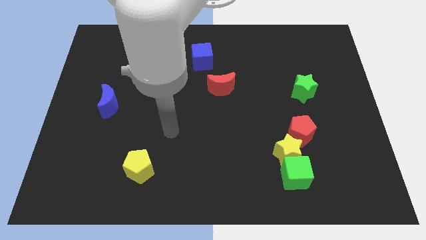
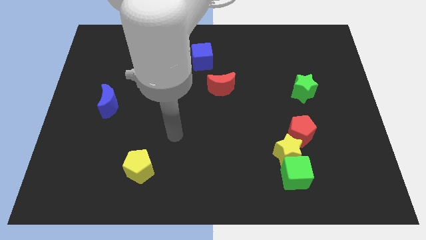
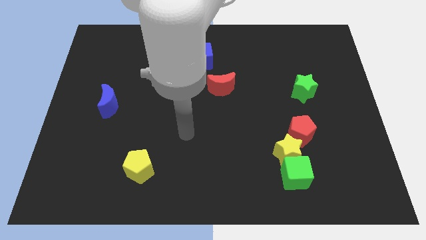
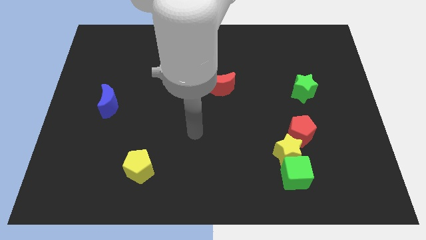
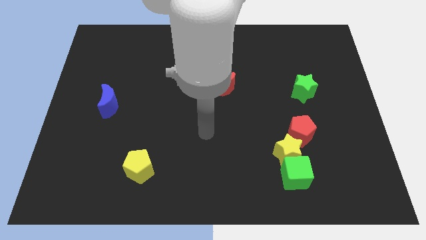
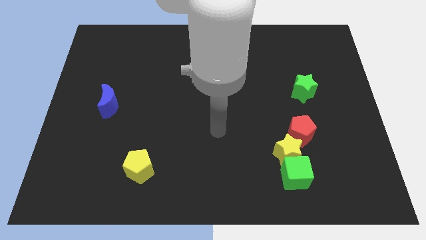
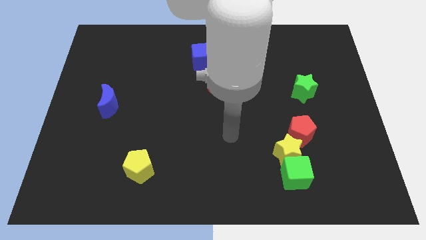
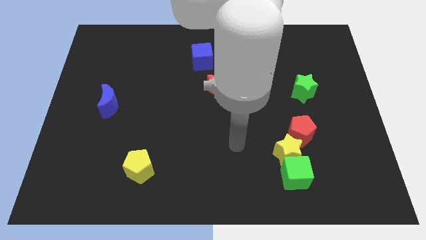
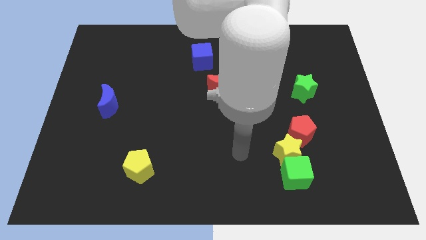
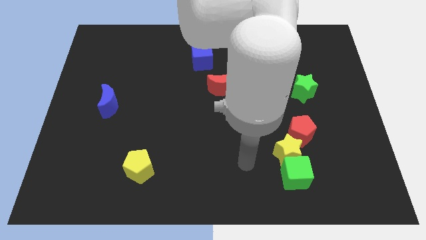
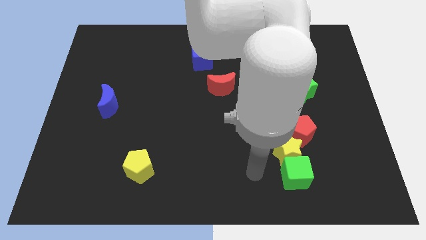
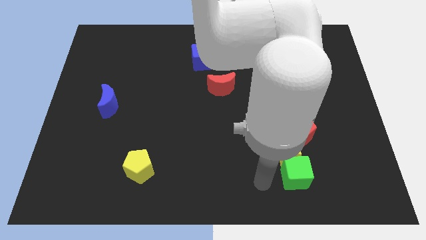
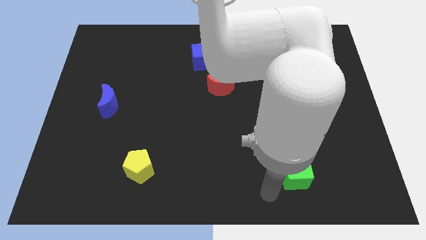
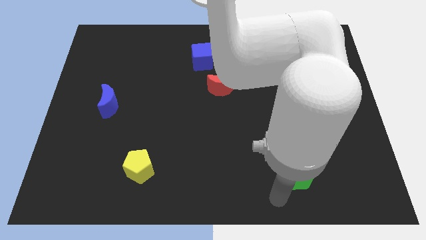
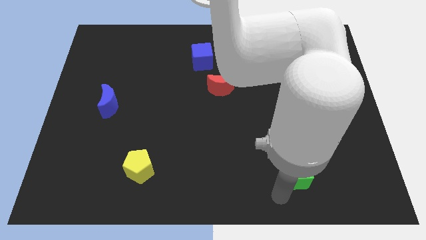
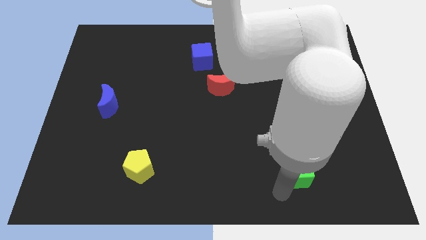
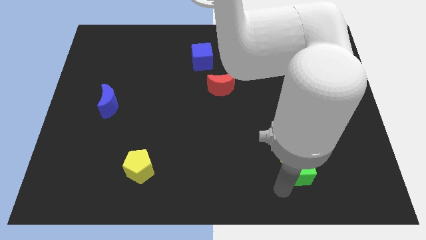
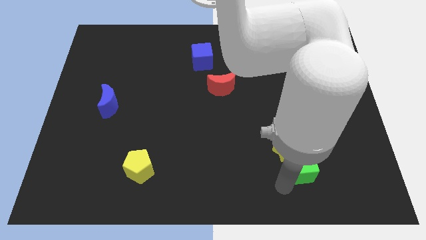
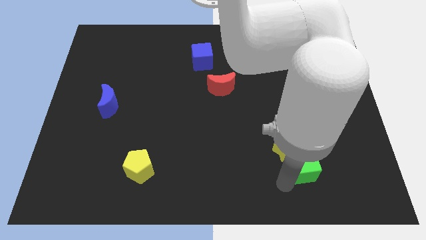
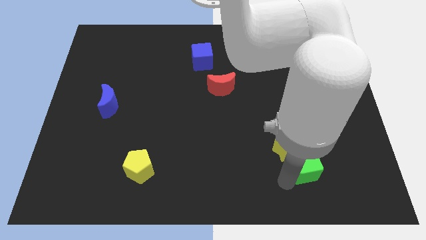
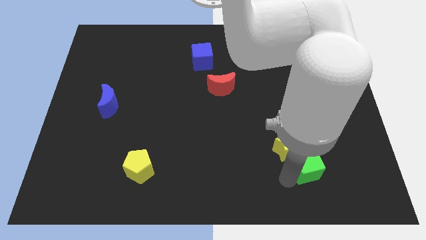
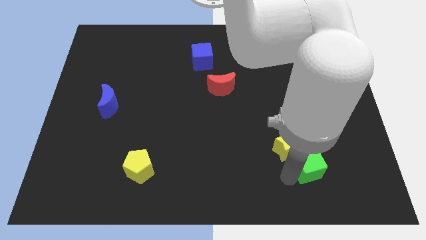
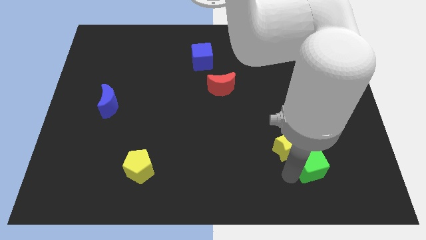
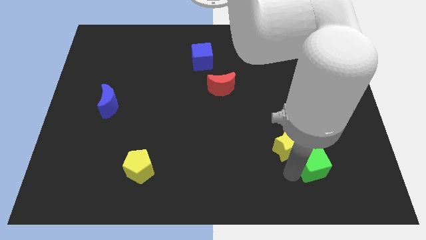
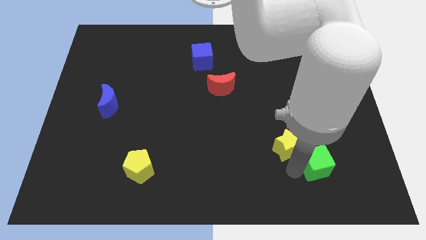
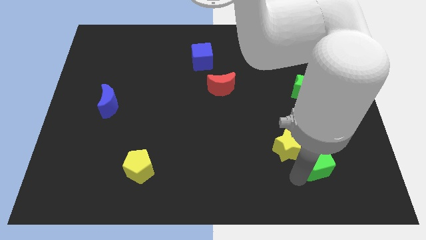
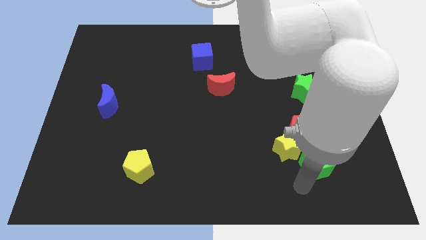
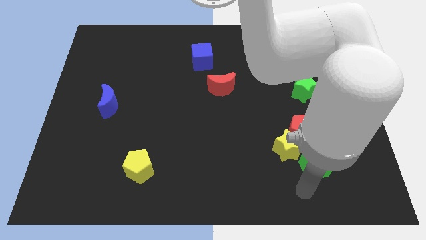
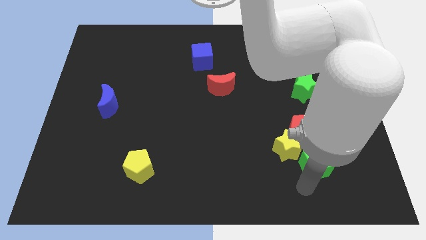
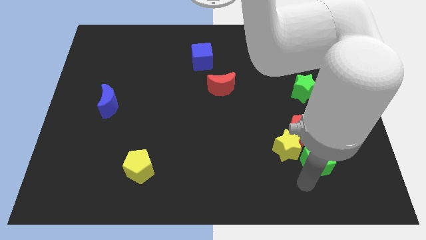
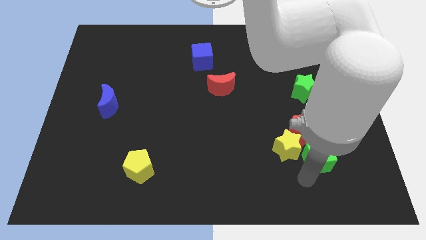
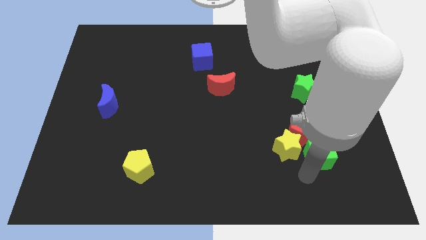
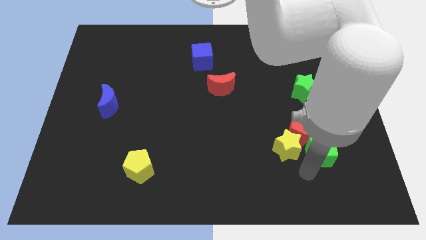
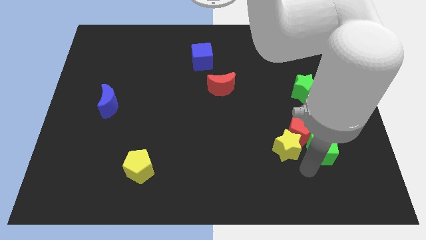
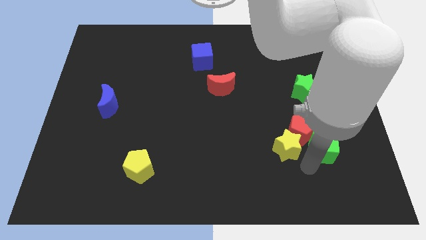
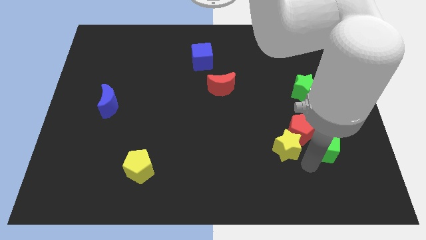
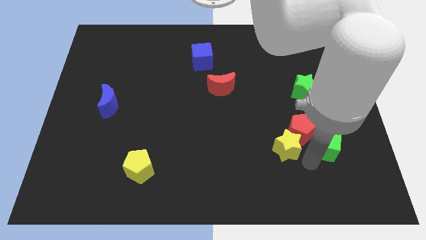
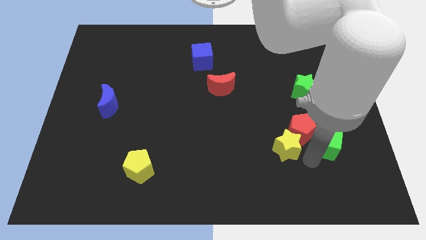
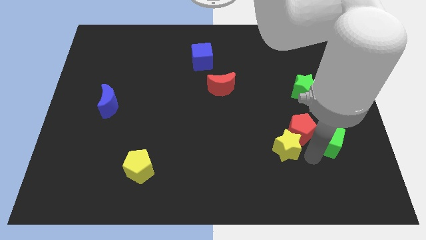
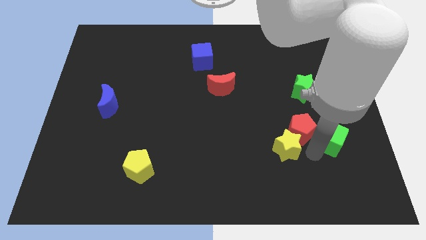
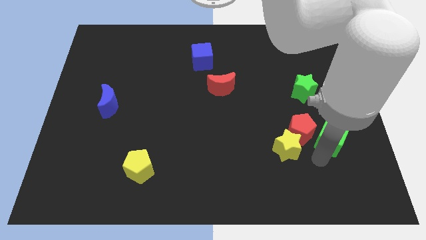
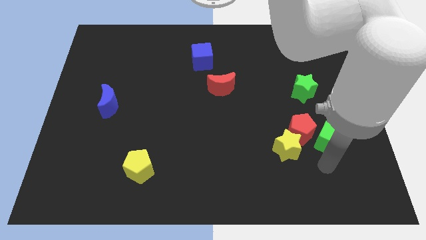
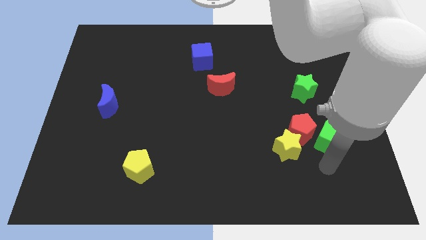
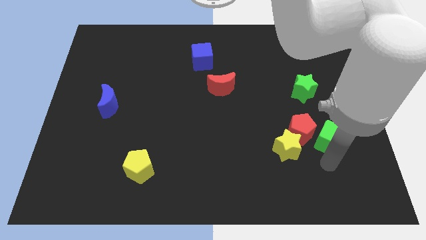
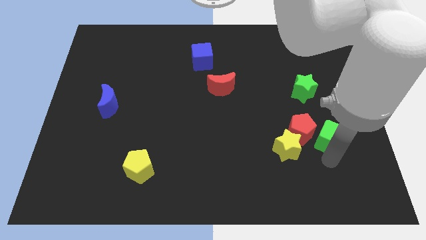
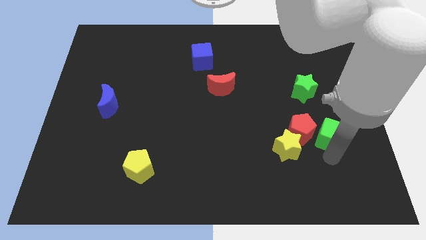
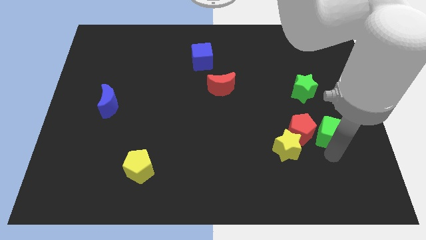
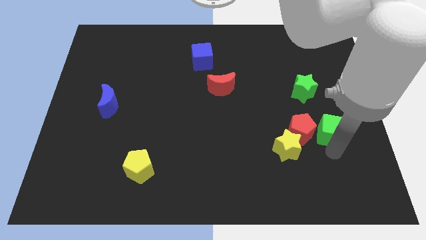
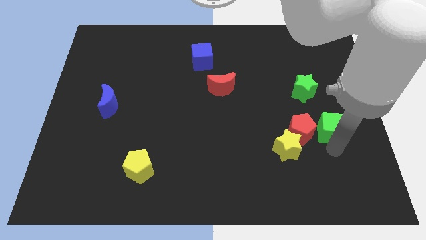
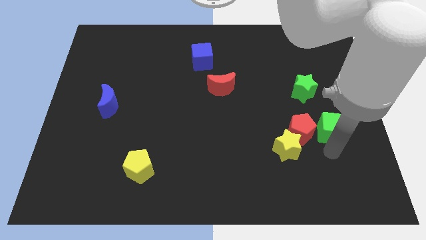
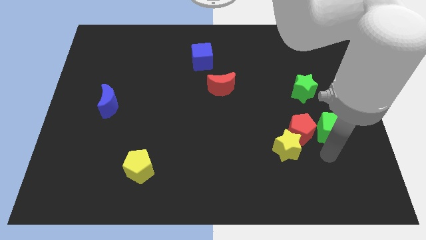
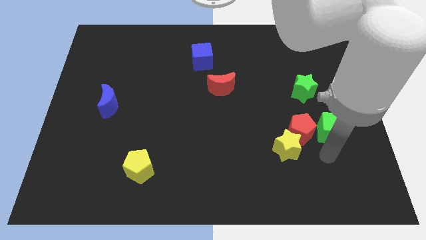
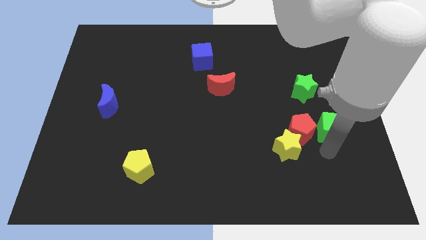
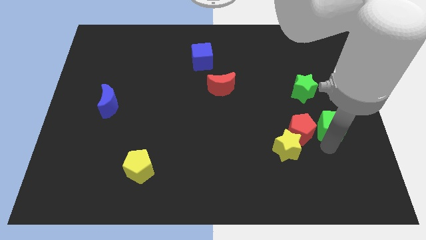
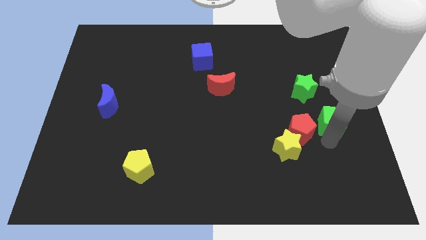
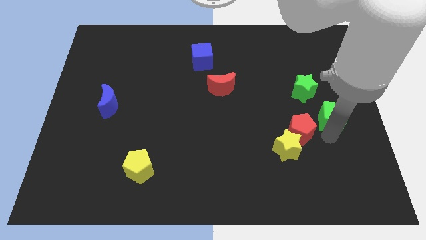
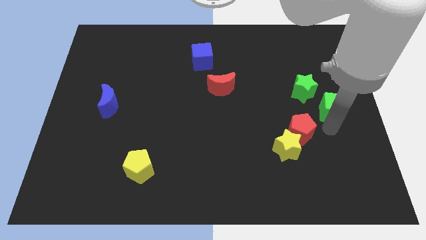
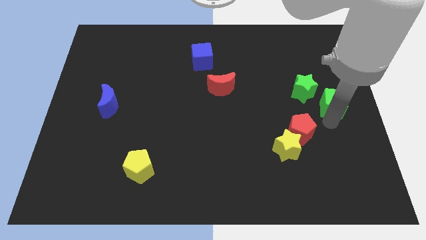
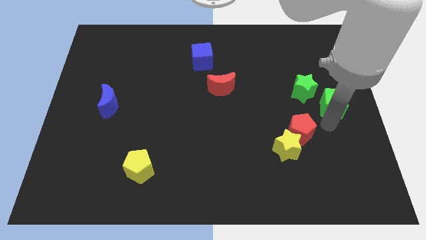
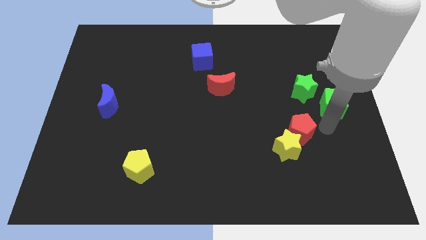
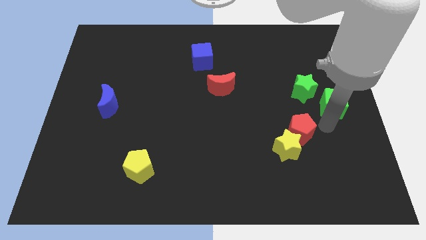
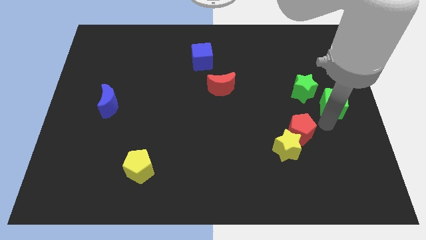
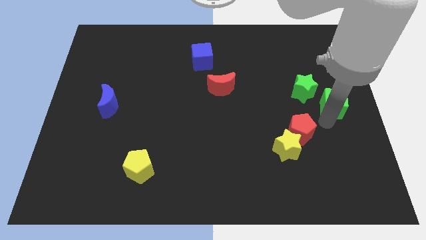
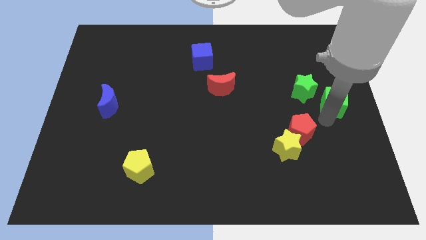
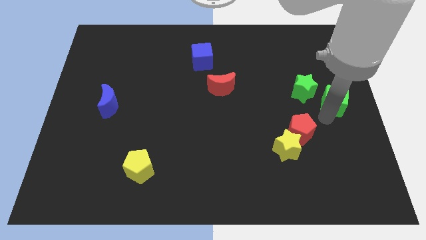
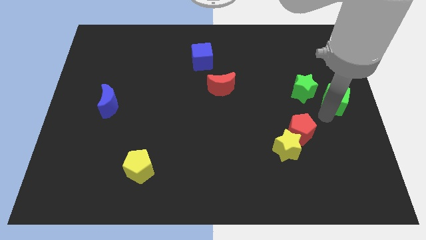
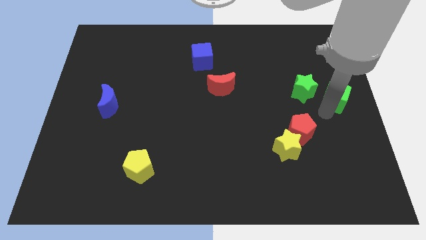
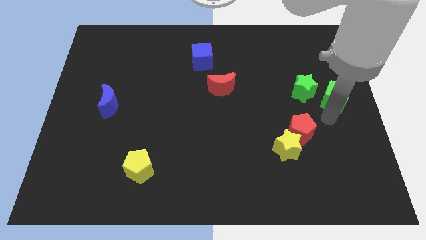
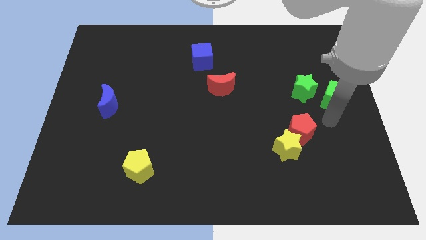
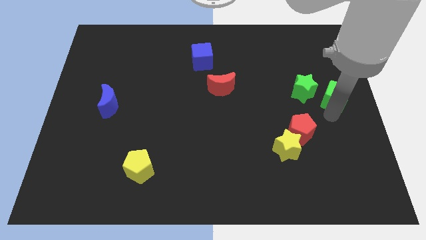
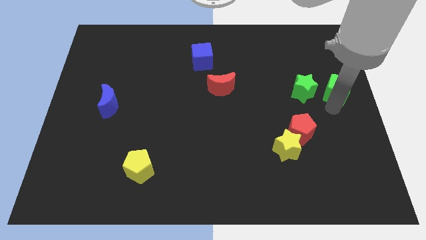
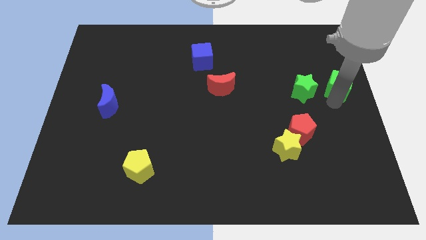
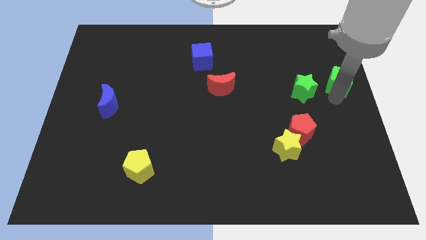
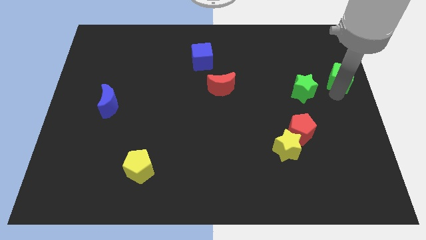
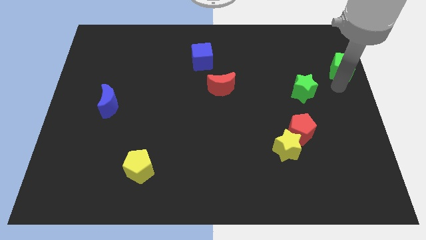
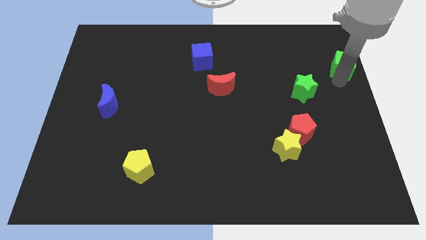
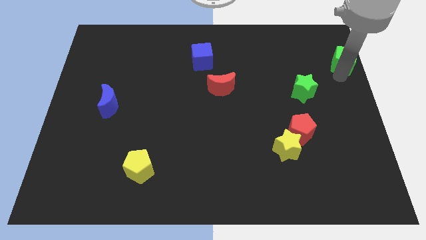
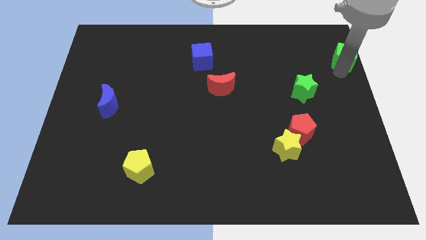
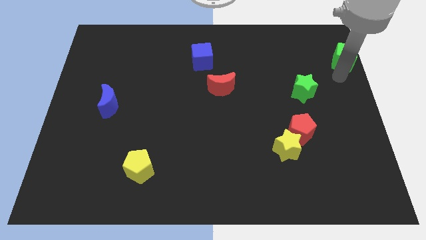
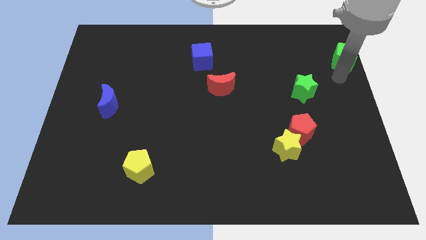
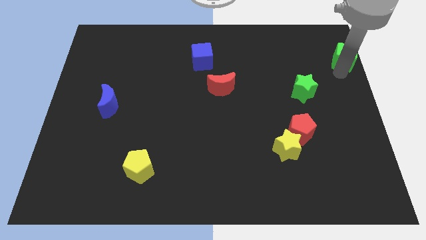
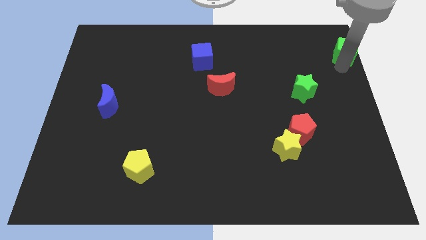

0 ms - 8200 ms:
put the green cube to the top right corner
